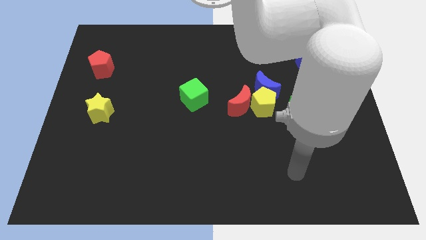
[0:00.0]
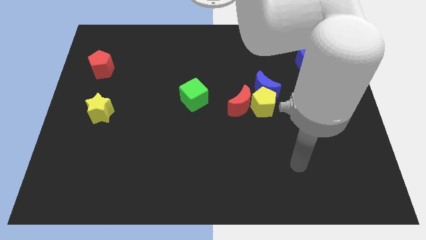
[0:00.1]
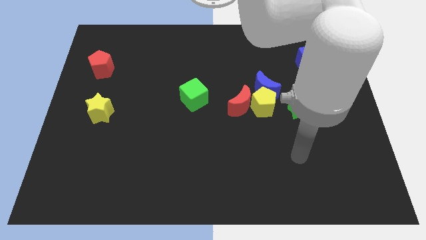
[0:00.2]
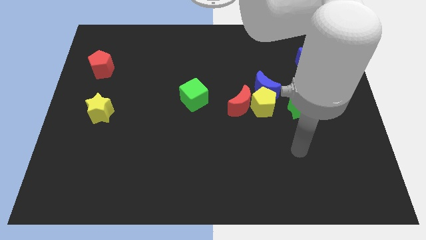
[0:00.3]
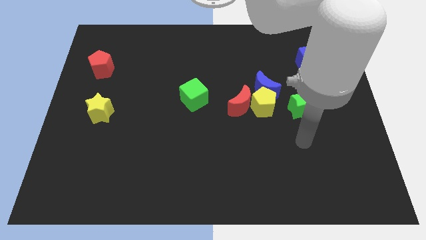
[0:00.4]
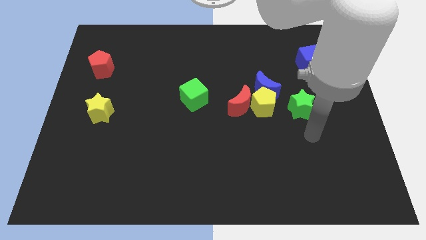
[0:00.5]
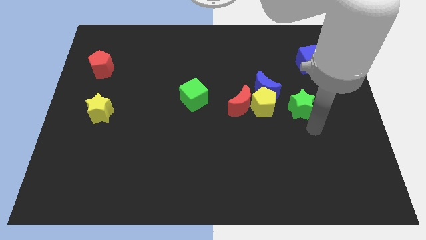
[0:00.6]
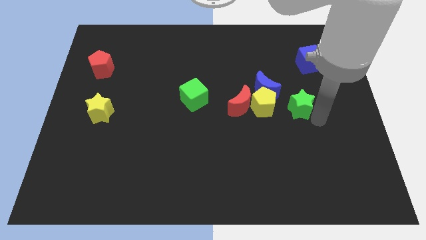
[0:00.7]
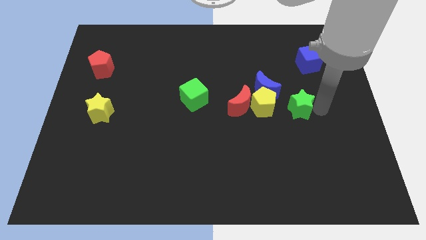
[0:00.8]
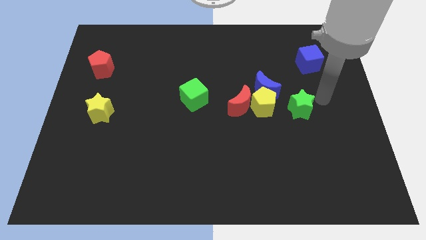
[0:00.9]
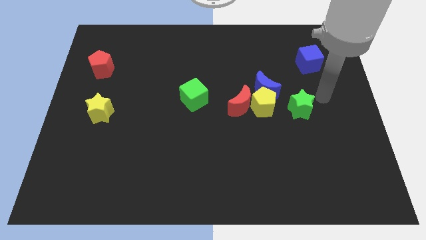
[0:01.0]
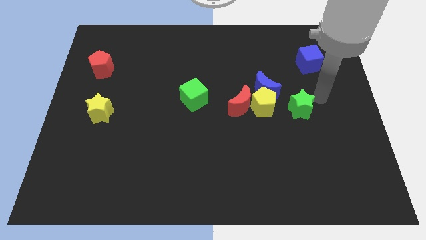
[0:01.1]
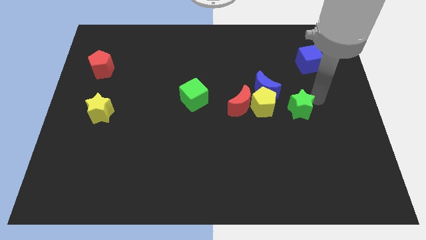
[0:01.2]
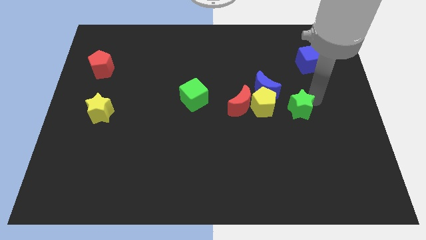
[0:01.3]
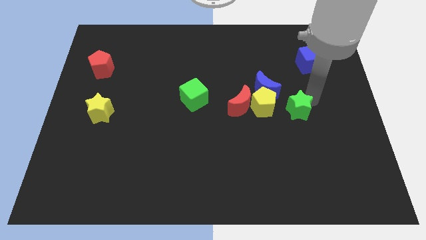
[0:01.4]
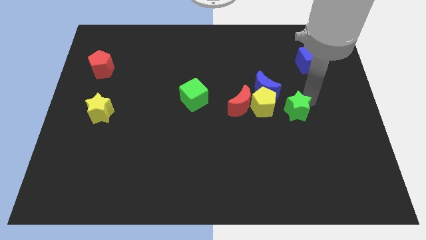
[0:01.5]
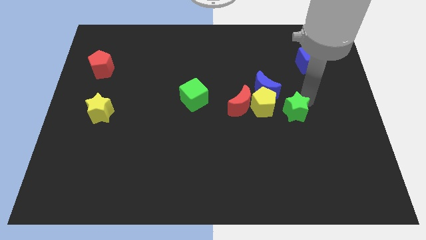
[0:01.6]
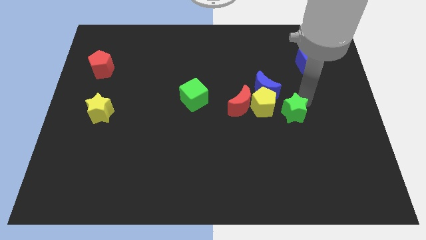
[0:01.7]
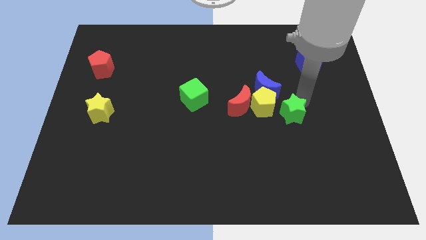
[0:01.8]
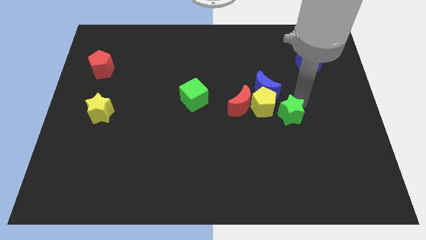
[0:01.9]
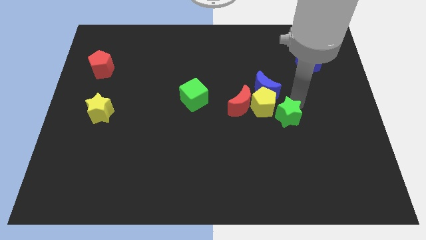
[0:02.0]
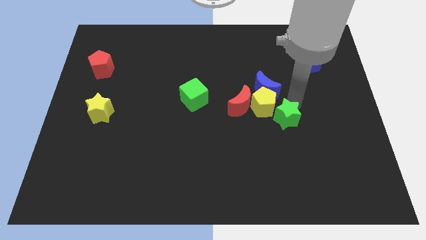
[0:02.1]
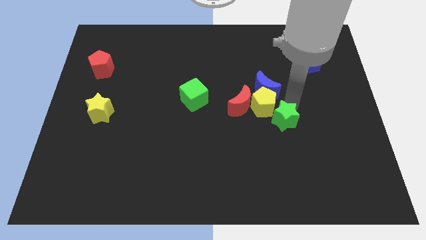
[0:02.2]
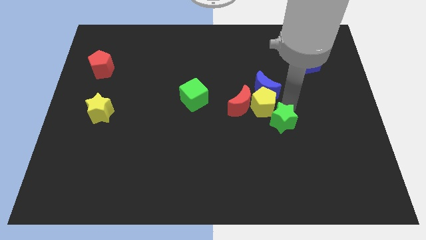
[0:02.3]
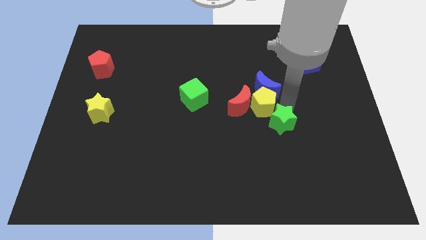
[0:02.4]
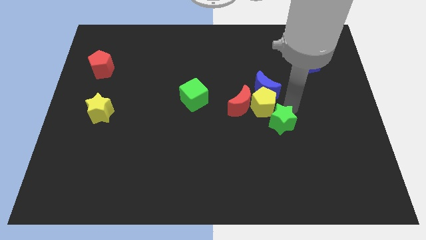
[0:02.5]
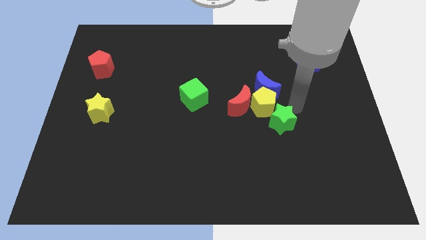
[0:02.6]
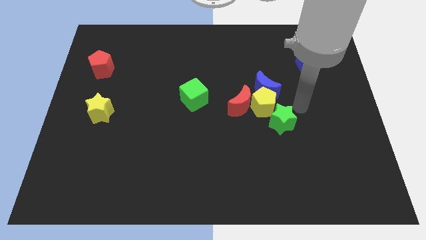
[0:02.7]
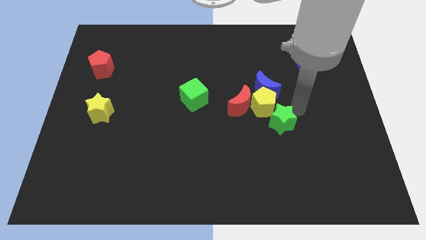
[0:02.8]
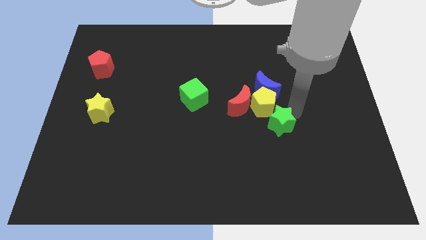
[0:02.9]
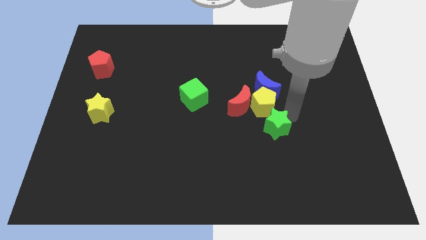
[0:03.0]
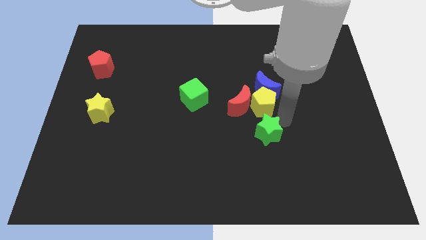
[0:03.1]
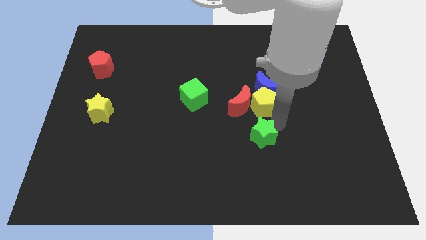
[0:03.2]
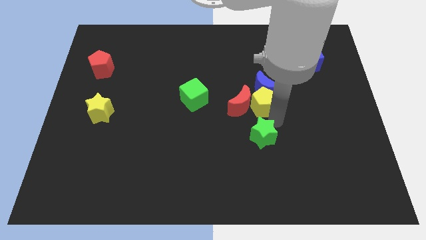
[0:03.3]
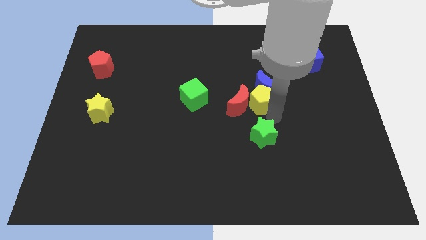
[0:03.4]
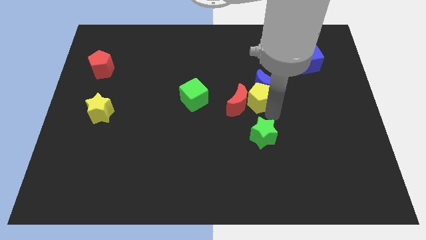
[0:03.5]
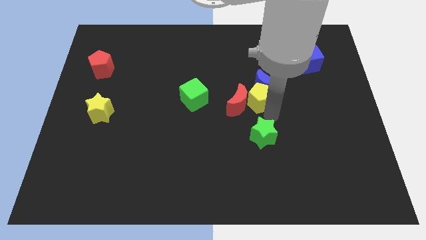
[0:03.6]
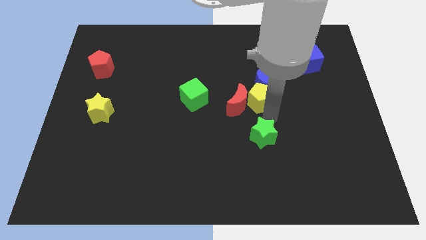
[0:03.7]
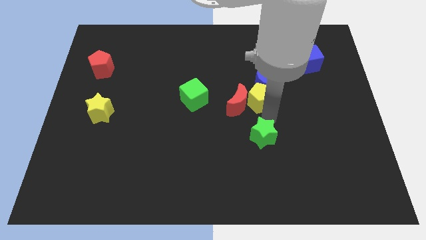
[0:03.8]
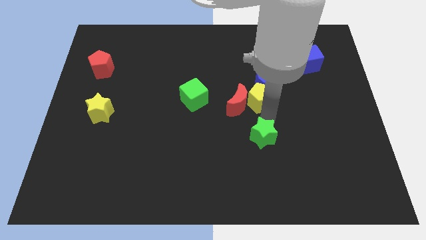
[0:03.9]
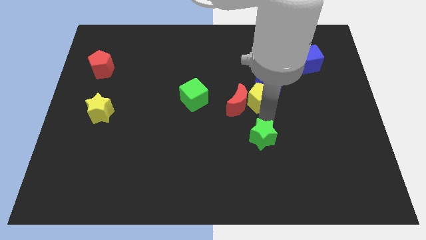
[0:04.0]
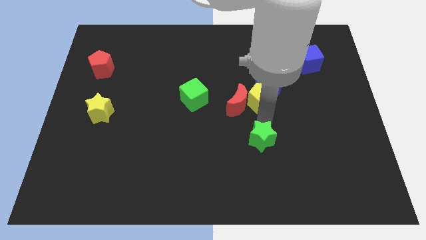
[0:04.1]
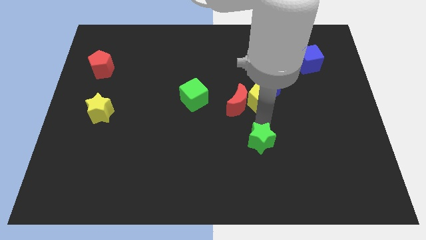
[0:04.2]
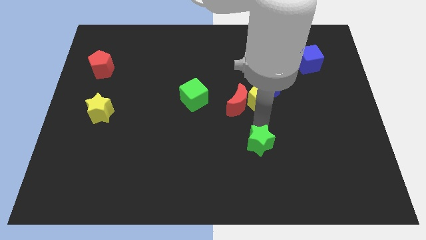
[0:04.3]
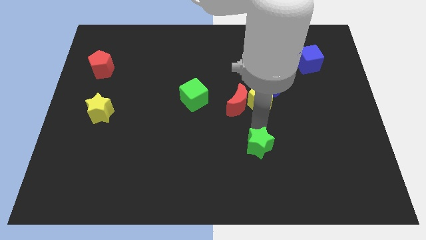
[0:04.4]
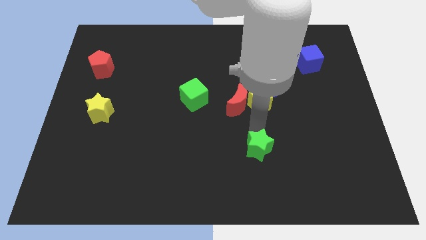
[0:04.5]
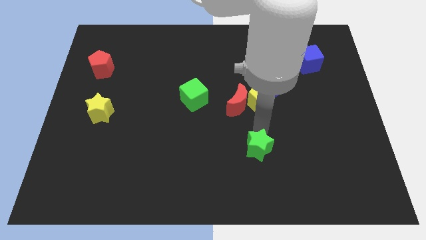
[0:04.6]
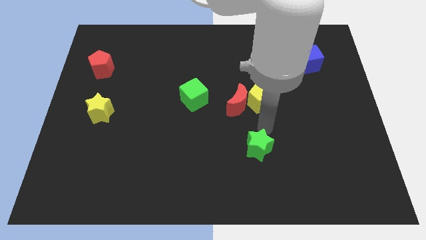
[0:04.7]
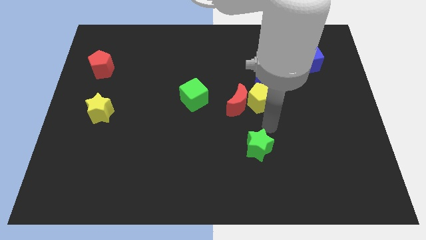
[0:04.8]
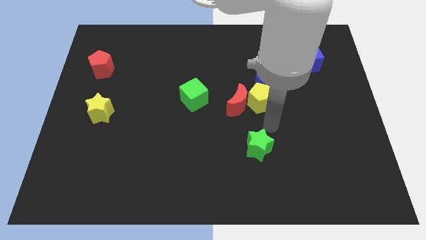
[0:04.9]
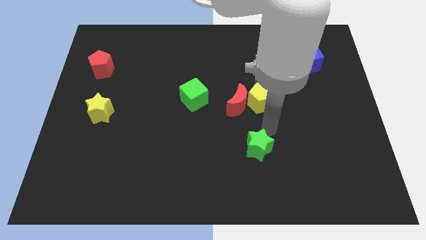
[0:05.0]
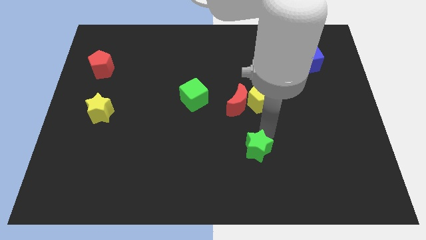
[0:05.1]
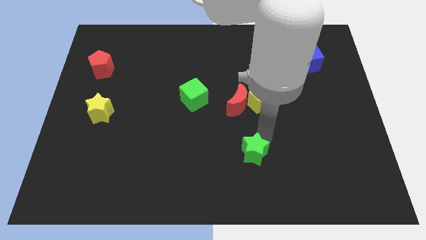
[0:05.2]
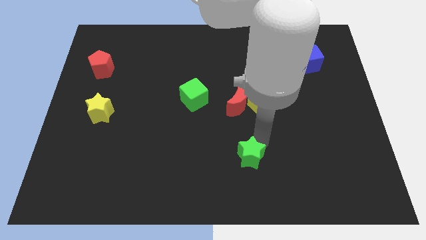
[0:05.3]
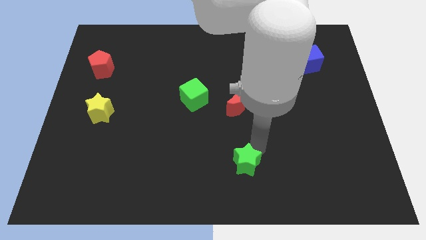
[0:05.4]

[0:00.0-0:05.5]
slide the green star to the bottom

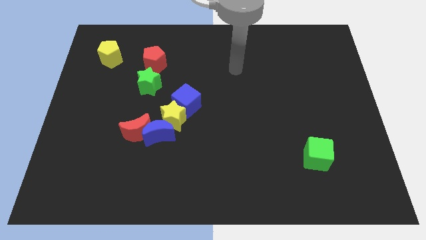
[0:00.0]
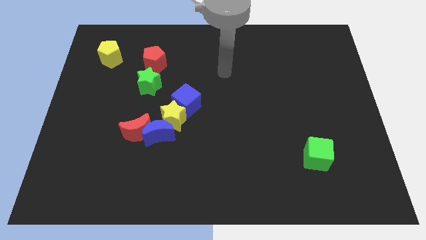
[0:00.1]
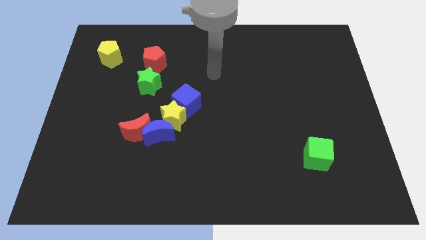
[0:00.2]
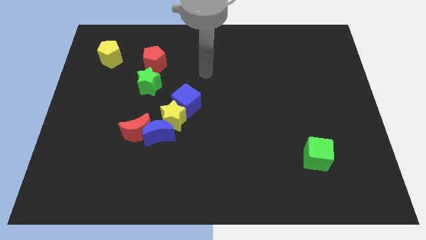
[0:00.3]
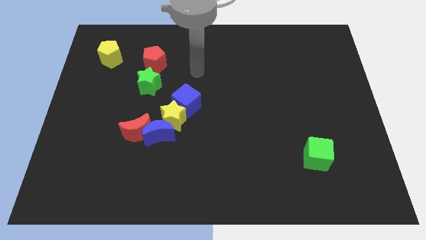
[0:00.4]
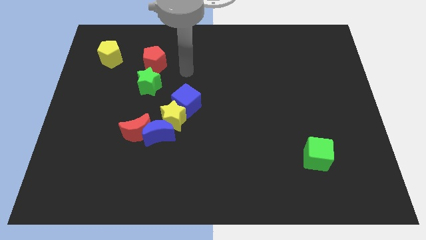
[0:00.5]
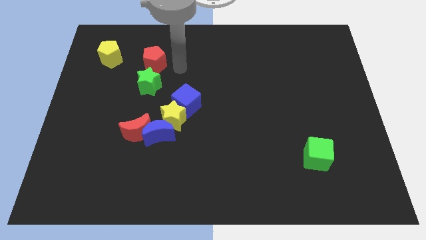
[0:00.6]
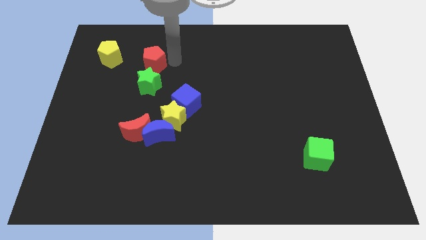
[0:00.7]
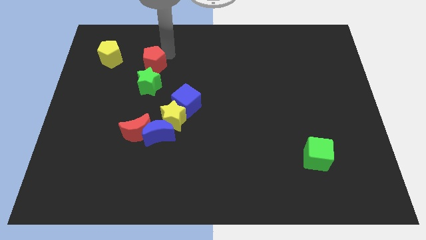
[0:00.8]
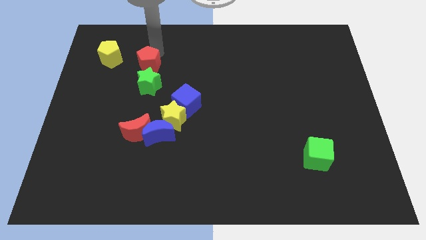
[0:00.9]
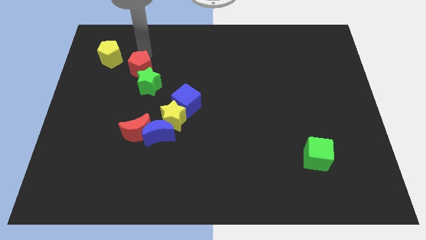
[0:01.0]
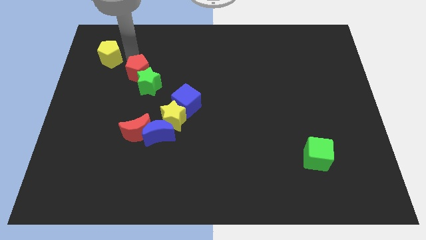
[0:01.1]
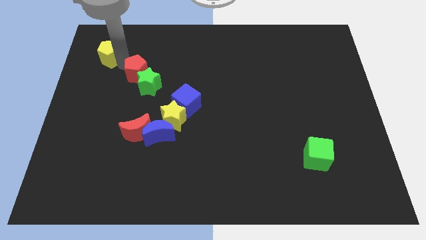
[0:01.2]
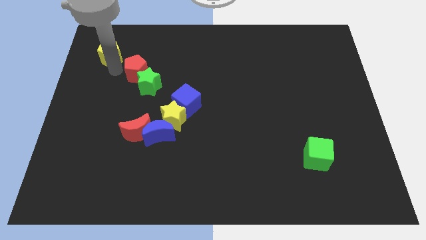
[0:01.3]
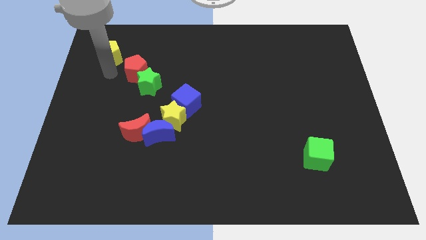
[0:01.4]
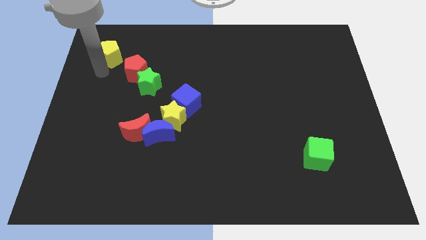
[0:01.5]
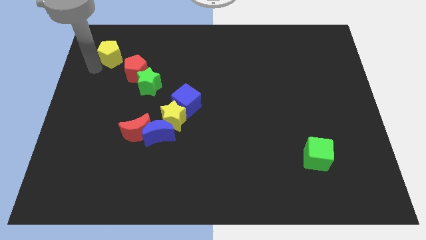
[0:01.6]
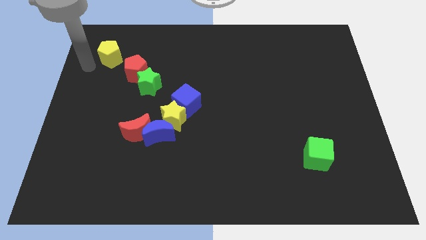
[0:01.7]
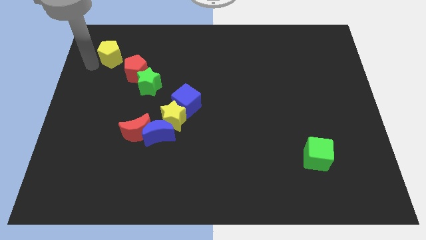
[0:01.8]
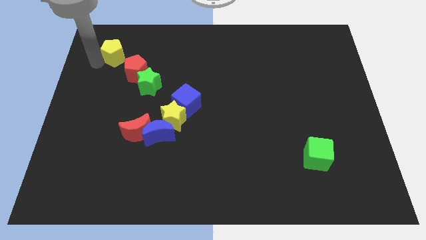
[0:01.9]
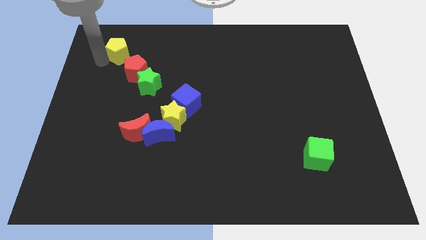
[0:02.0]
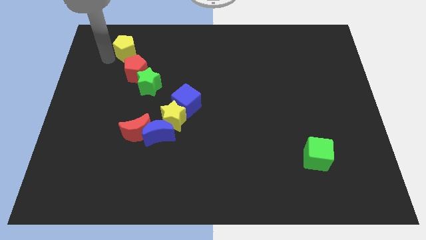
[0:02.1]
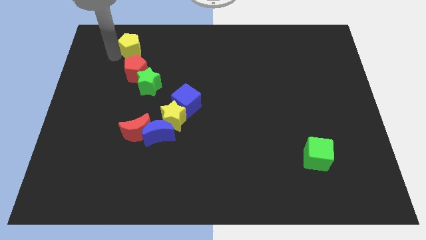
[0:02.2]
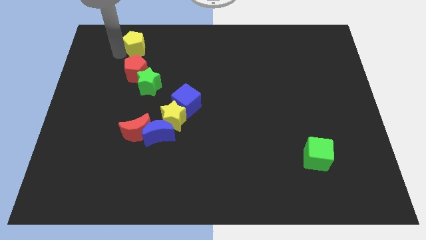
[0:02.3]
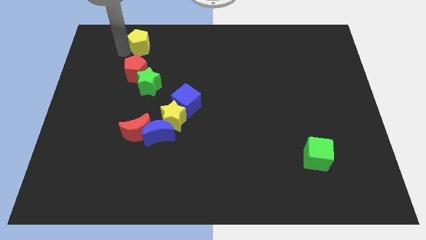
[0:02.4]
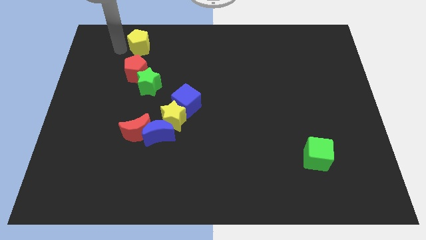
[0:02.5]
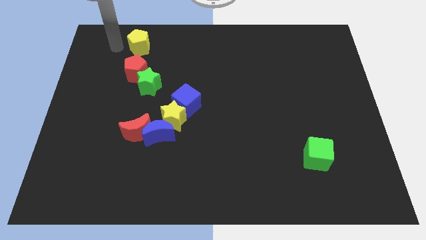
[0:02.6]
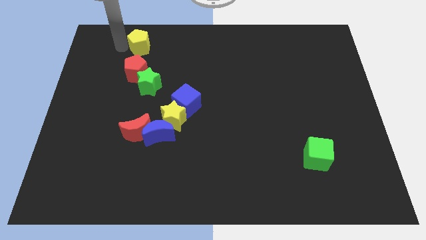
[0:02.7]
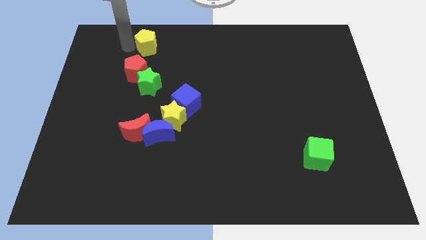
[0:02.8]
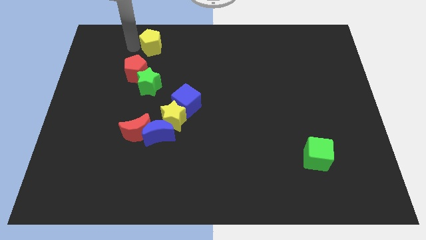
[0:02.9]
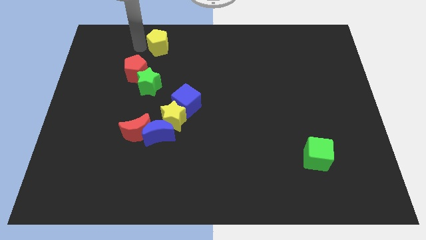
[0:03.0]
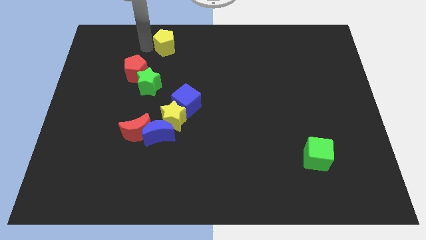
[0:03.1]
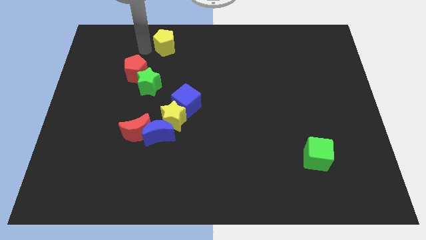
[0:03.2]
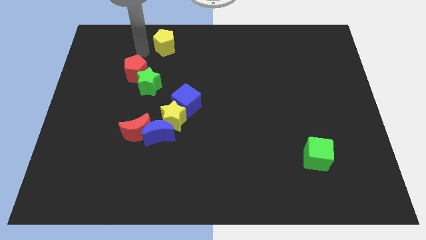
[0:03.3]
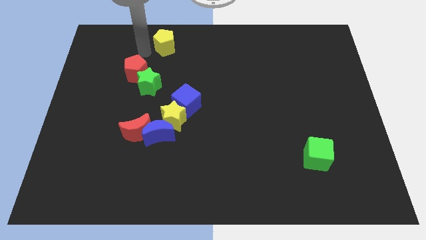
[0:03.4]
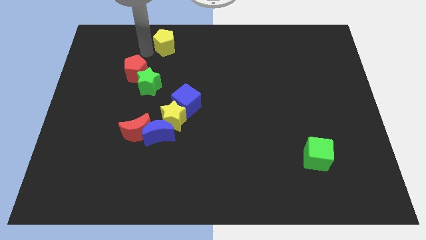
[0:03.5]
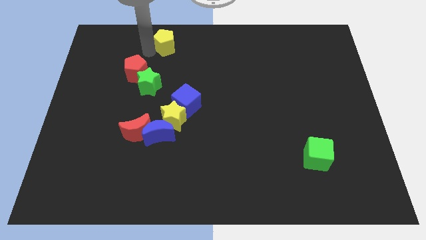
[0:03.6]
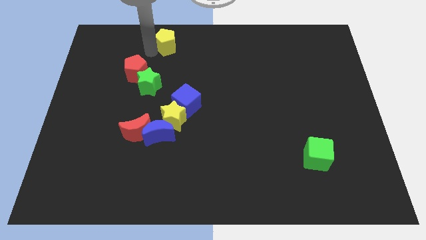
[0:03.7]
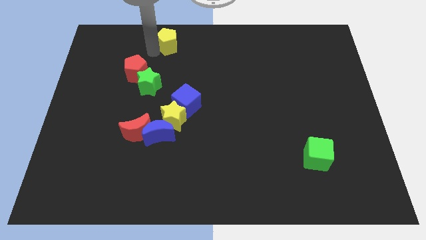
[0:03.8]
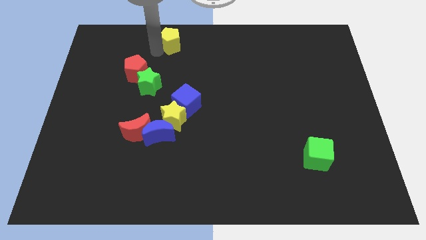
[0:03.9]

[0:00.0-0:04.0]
put the yellow pentagon to the top side
